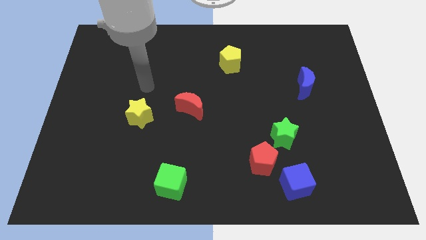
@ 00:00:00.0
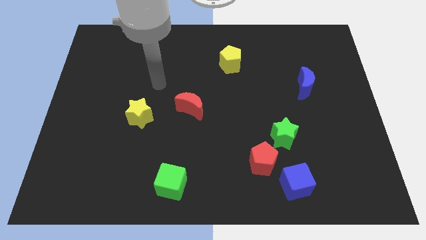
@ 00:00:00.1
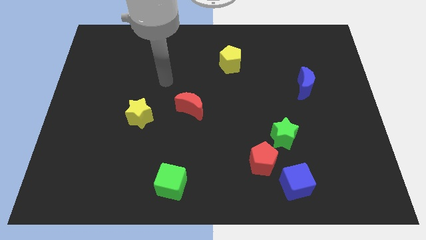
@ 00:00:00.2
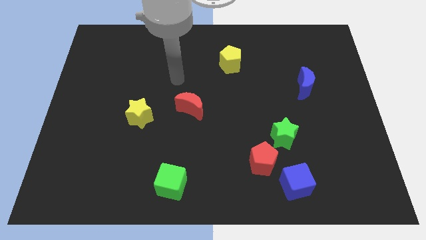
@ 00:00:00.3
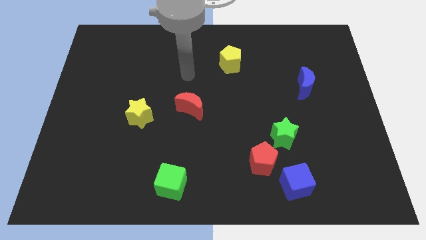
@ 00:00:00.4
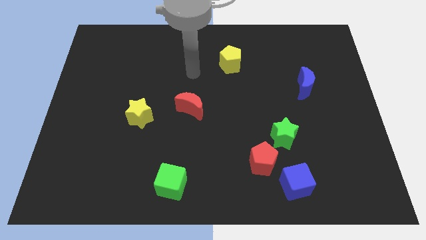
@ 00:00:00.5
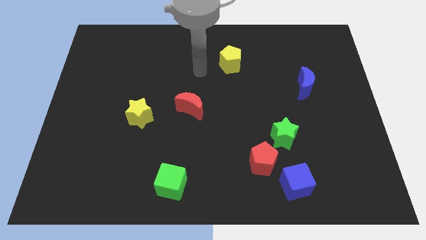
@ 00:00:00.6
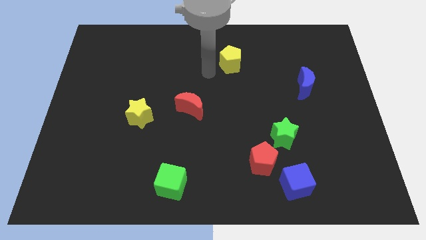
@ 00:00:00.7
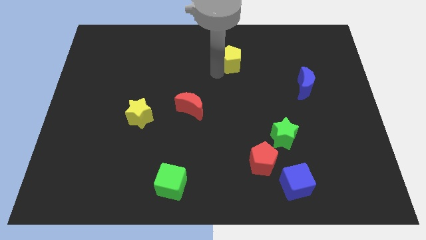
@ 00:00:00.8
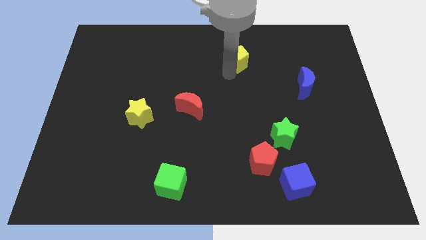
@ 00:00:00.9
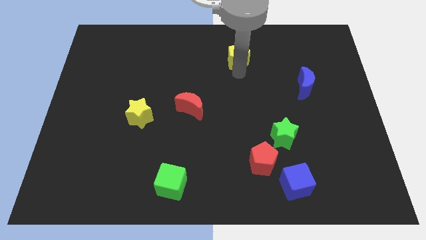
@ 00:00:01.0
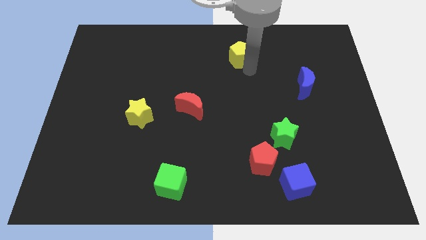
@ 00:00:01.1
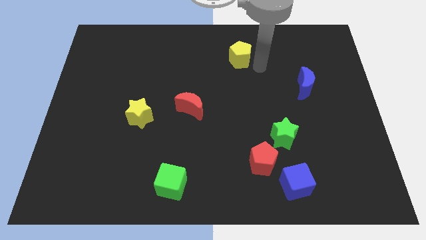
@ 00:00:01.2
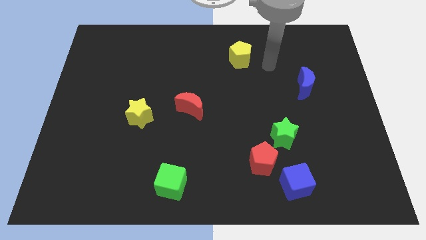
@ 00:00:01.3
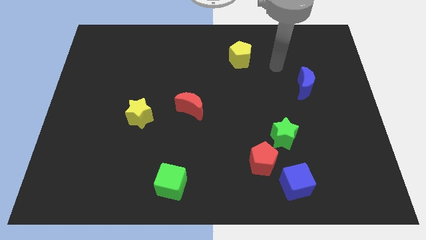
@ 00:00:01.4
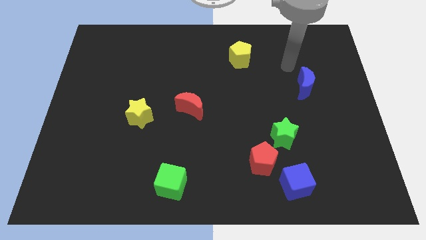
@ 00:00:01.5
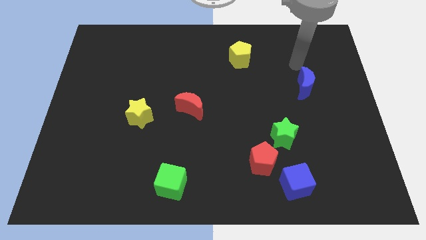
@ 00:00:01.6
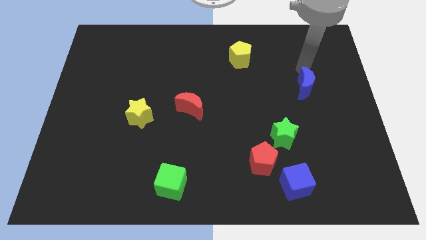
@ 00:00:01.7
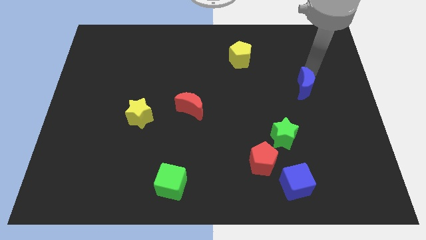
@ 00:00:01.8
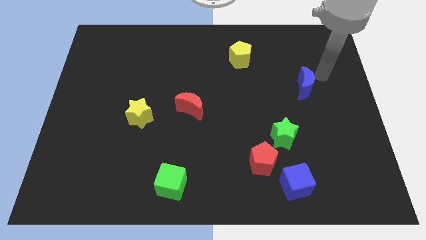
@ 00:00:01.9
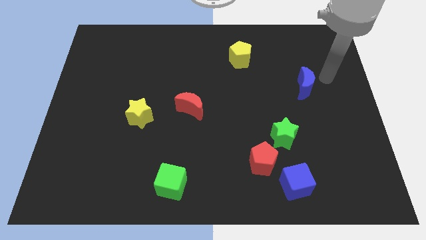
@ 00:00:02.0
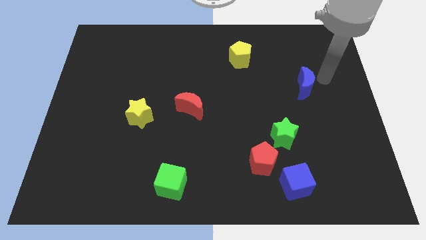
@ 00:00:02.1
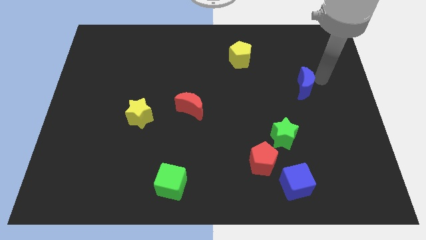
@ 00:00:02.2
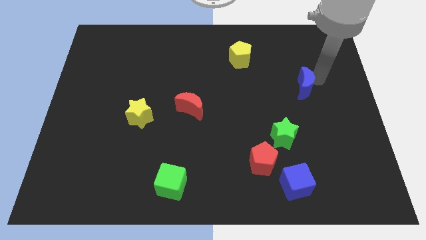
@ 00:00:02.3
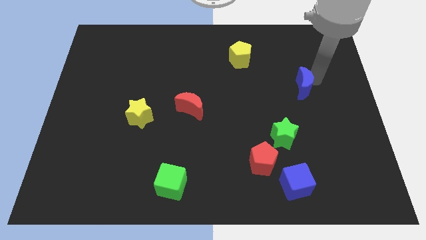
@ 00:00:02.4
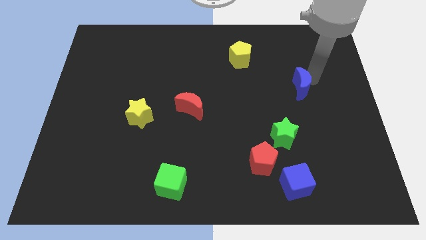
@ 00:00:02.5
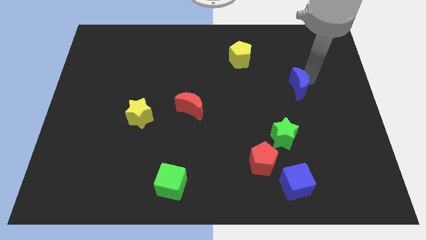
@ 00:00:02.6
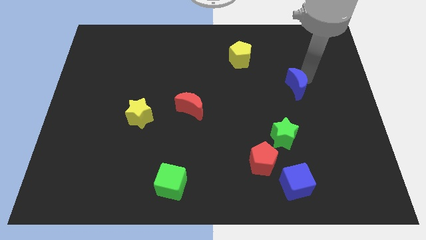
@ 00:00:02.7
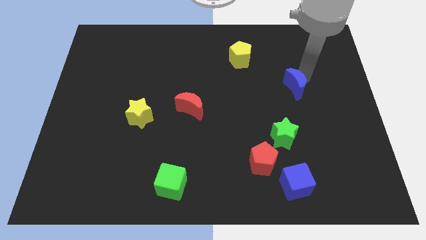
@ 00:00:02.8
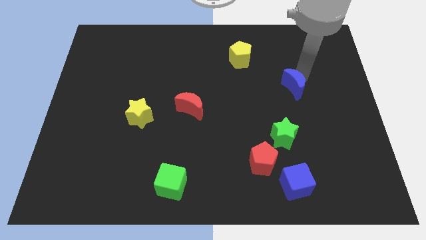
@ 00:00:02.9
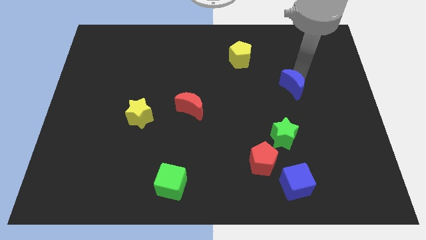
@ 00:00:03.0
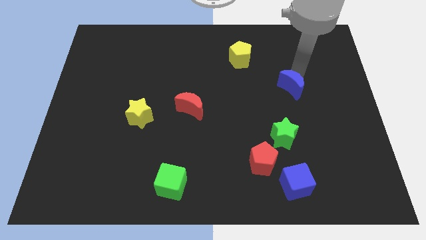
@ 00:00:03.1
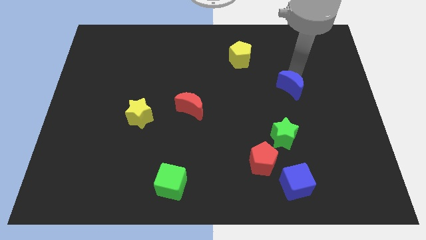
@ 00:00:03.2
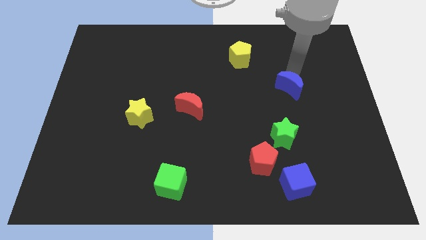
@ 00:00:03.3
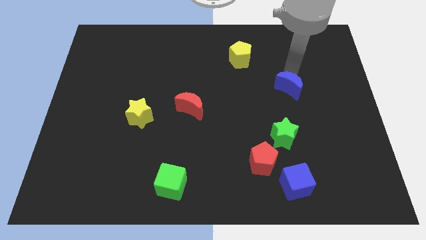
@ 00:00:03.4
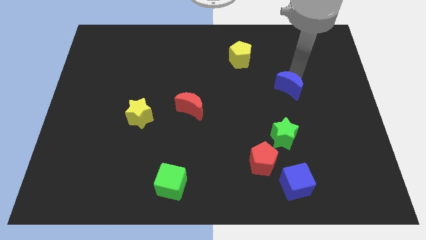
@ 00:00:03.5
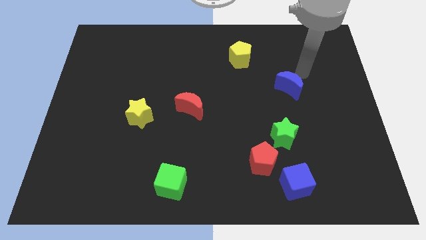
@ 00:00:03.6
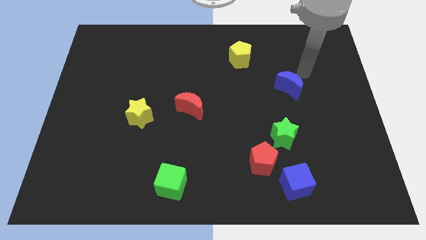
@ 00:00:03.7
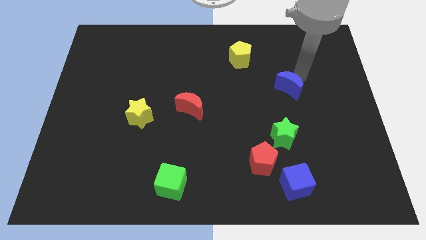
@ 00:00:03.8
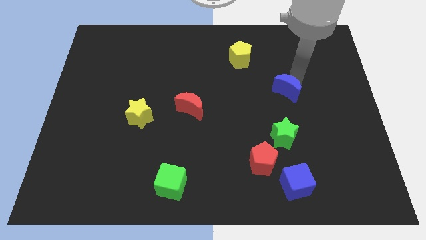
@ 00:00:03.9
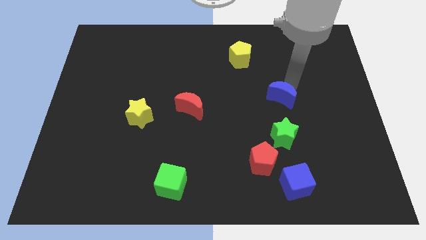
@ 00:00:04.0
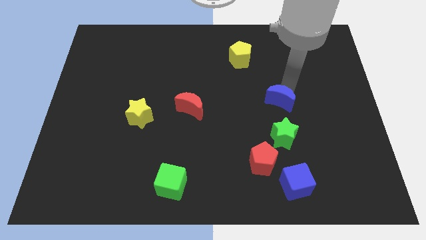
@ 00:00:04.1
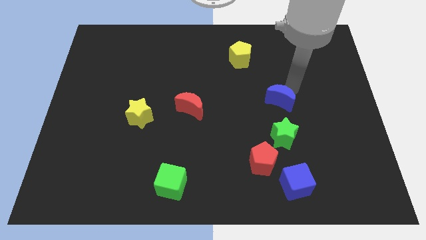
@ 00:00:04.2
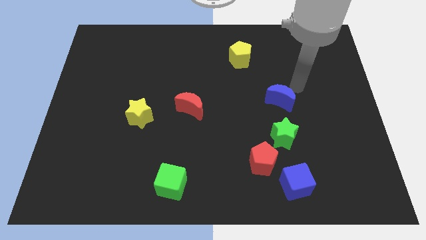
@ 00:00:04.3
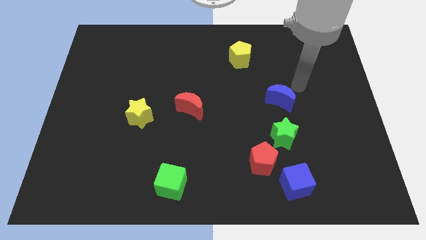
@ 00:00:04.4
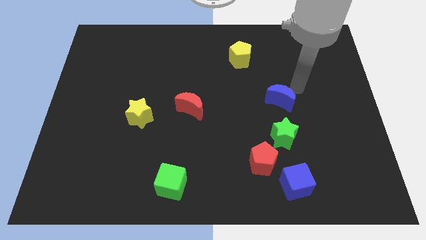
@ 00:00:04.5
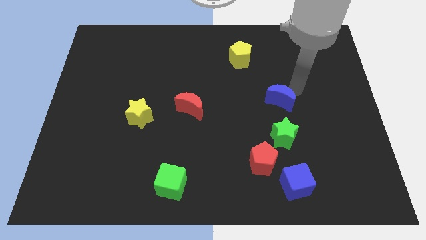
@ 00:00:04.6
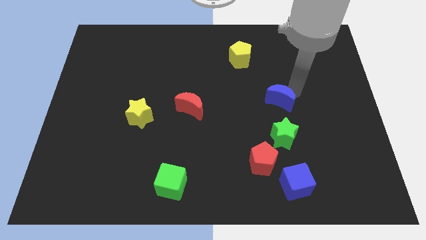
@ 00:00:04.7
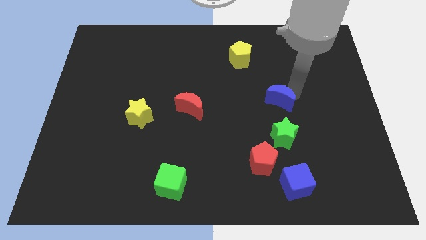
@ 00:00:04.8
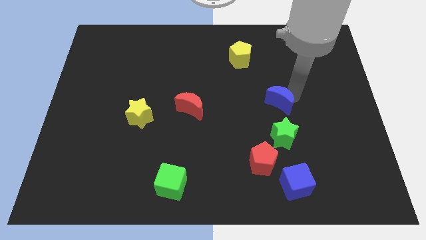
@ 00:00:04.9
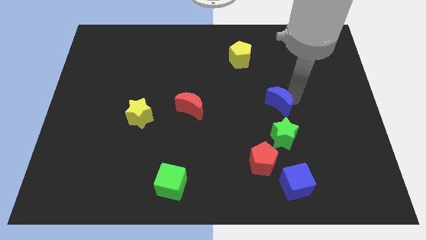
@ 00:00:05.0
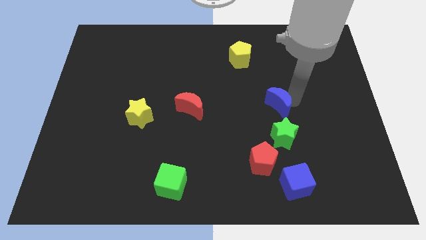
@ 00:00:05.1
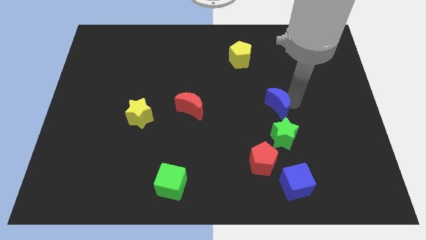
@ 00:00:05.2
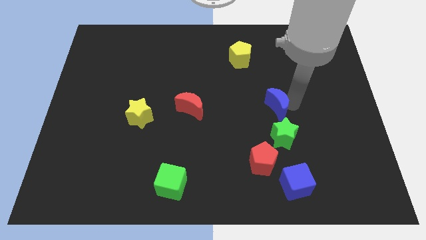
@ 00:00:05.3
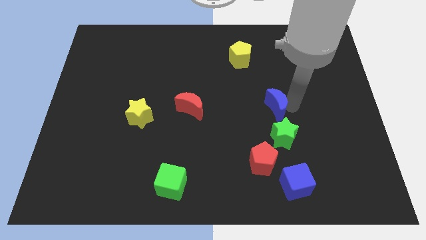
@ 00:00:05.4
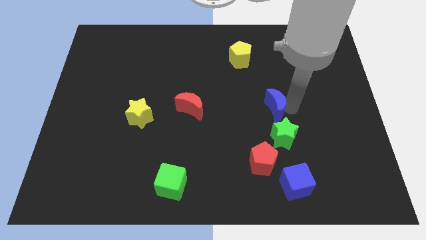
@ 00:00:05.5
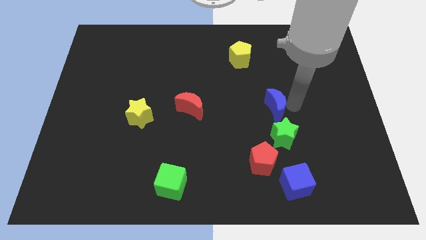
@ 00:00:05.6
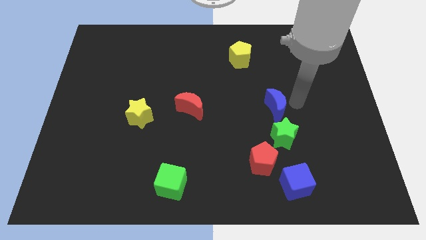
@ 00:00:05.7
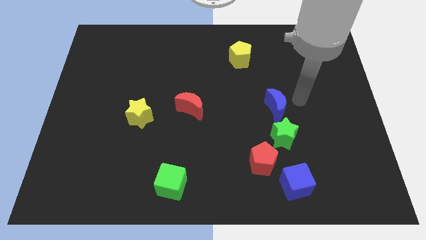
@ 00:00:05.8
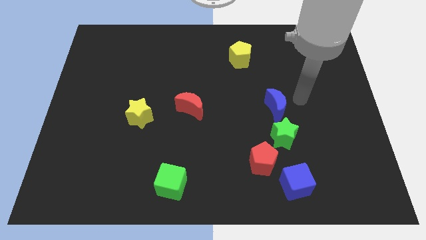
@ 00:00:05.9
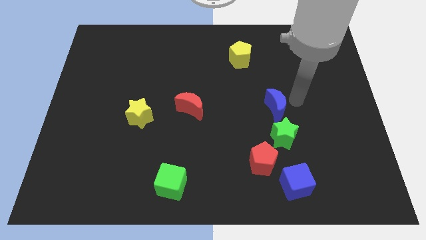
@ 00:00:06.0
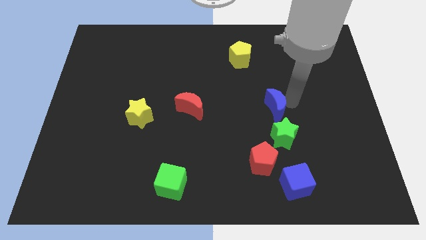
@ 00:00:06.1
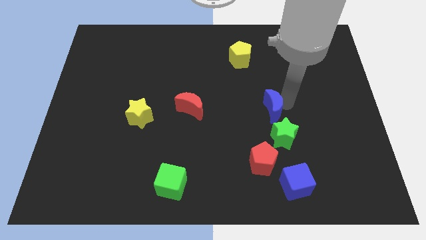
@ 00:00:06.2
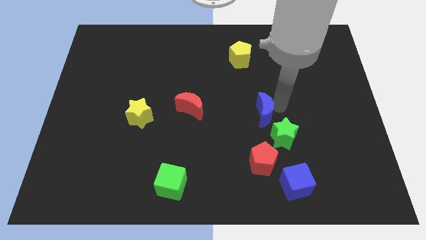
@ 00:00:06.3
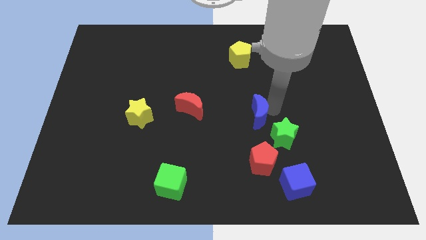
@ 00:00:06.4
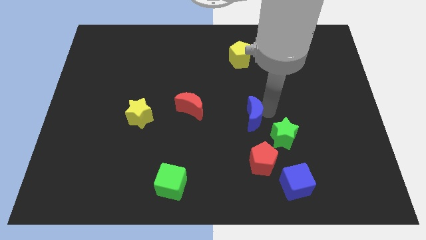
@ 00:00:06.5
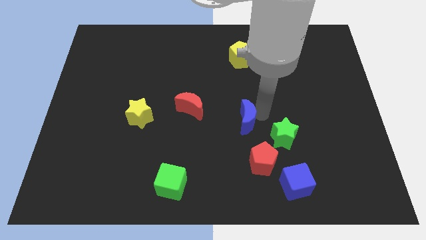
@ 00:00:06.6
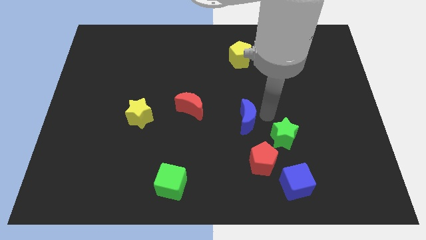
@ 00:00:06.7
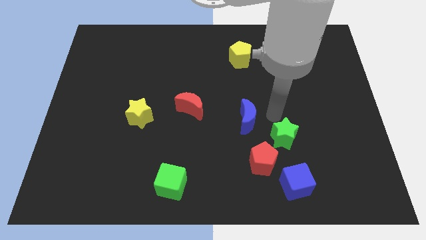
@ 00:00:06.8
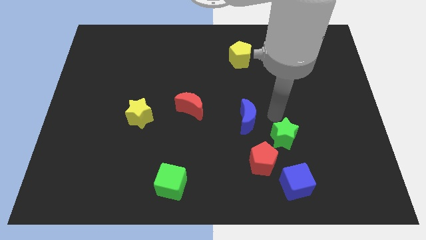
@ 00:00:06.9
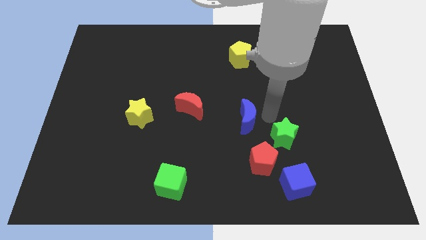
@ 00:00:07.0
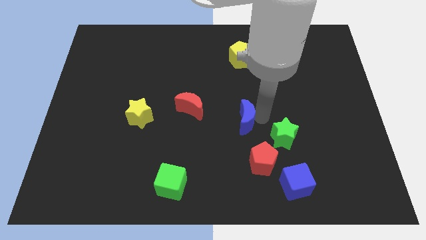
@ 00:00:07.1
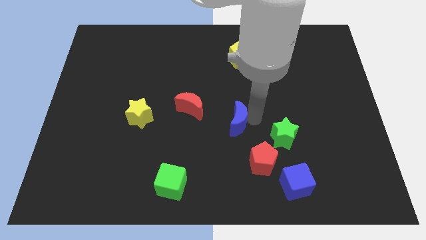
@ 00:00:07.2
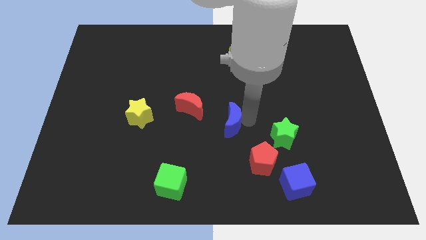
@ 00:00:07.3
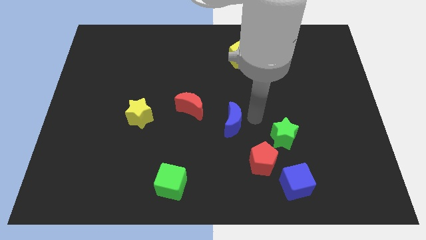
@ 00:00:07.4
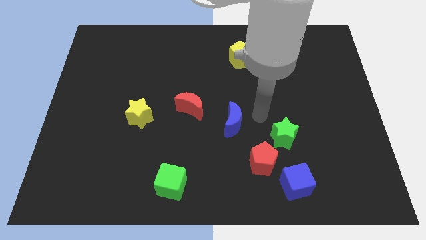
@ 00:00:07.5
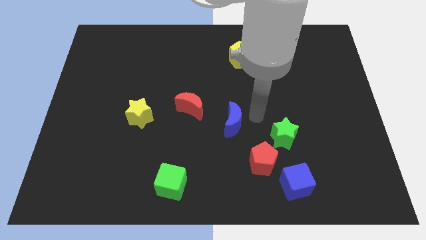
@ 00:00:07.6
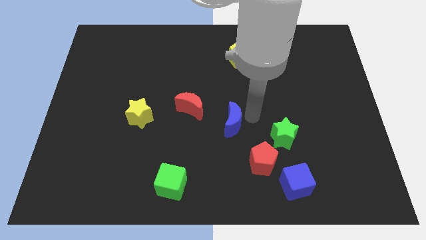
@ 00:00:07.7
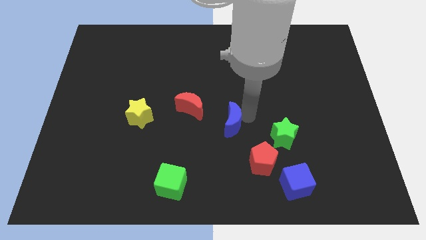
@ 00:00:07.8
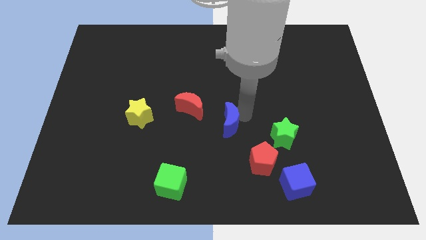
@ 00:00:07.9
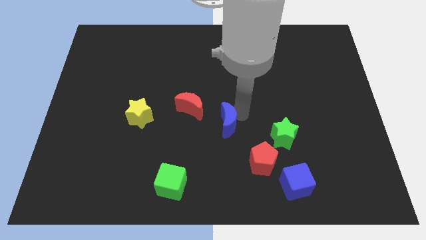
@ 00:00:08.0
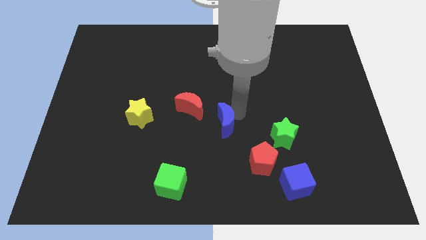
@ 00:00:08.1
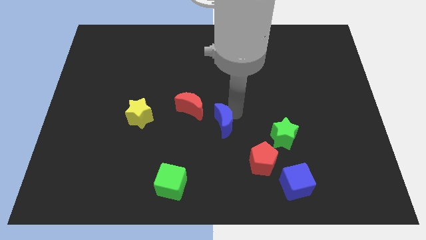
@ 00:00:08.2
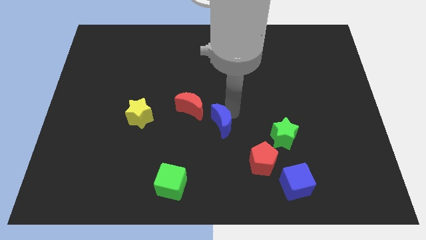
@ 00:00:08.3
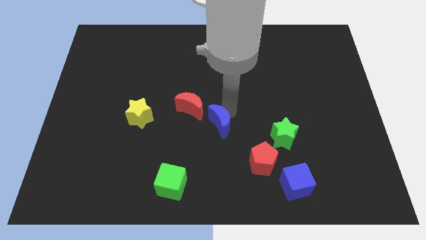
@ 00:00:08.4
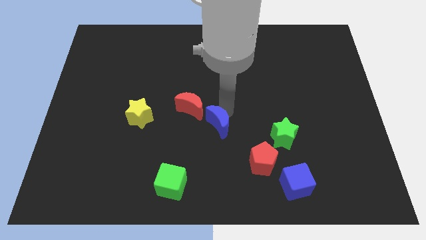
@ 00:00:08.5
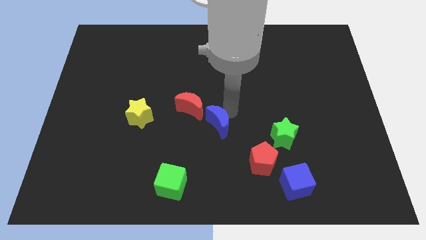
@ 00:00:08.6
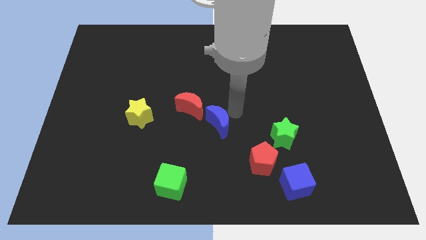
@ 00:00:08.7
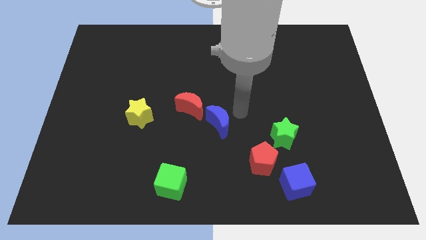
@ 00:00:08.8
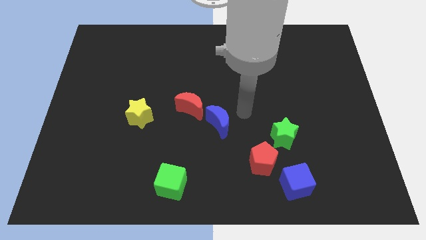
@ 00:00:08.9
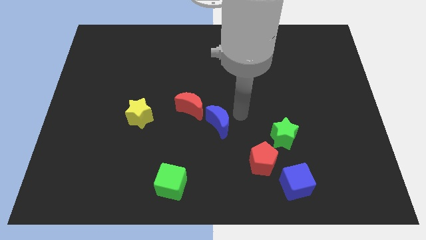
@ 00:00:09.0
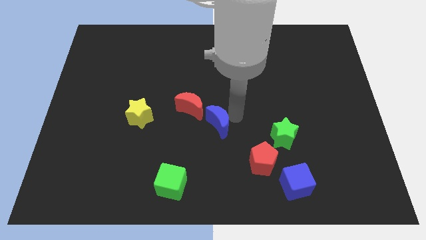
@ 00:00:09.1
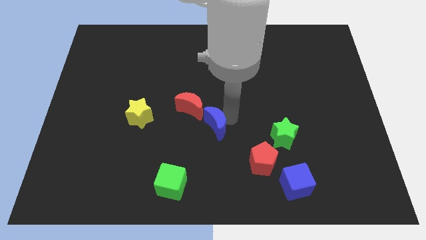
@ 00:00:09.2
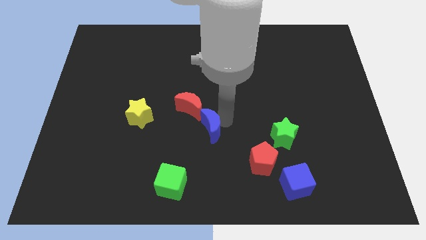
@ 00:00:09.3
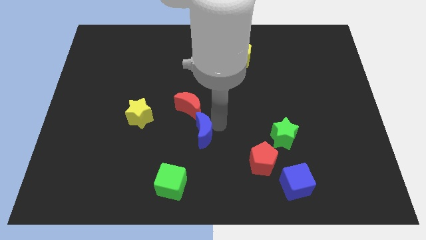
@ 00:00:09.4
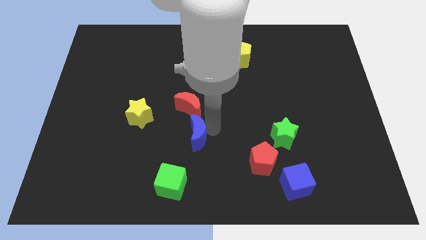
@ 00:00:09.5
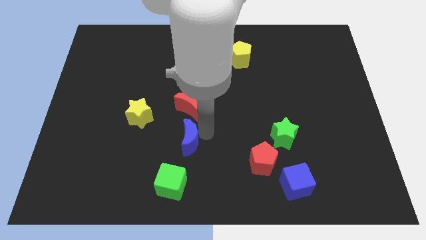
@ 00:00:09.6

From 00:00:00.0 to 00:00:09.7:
push the blue moon above the green cube